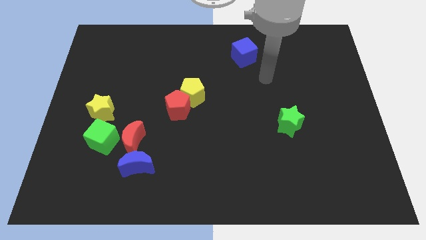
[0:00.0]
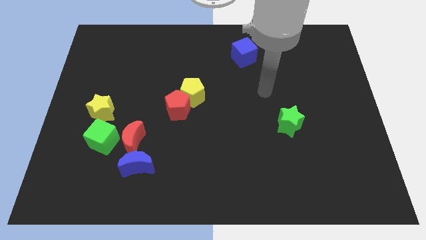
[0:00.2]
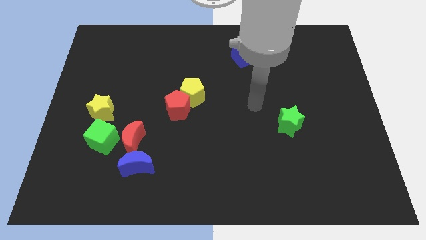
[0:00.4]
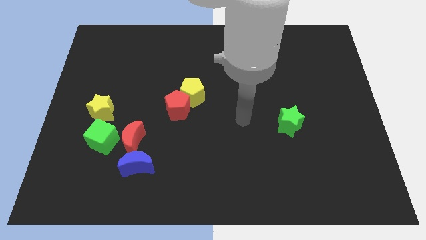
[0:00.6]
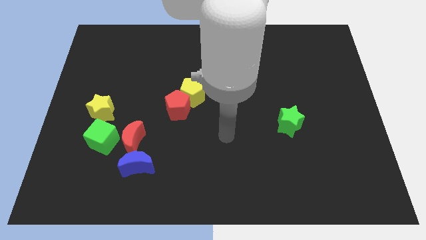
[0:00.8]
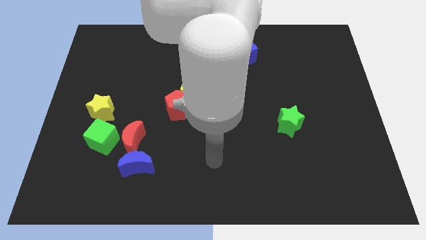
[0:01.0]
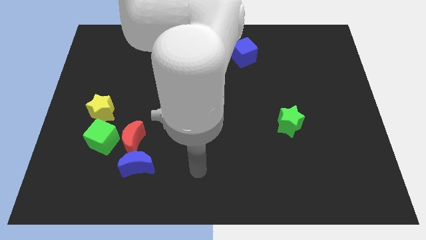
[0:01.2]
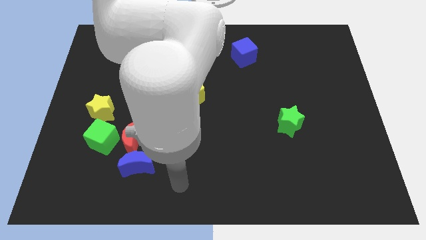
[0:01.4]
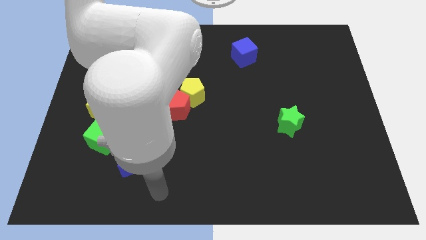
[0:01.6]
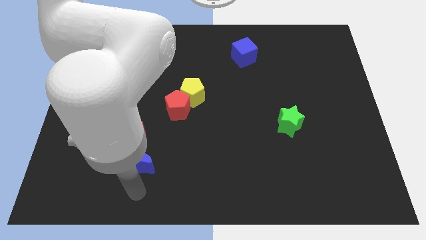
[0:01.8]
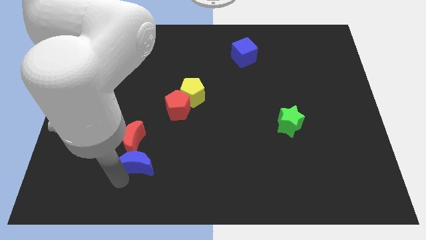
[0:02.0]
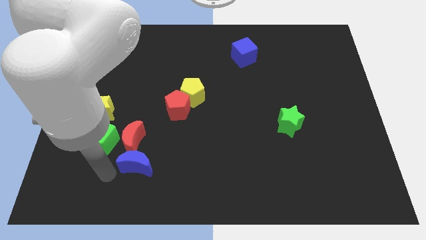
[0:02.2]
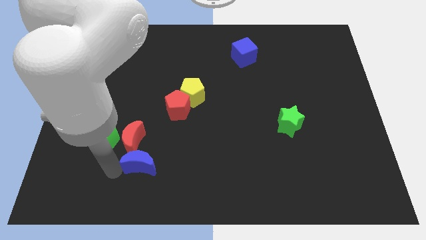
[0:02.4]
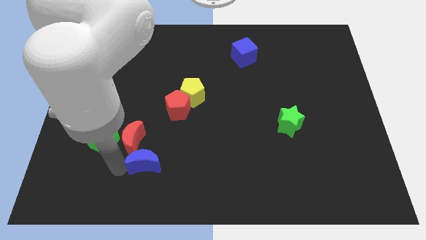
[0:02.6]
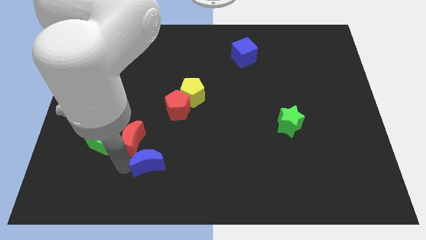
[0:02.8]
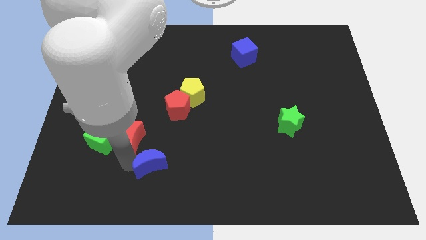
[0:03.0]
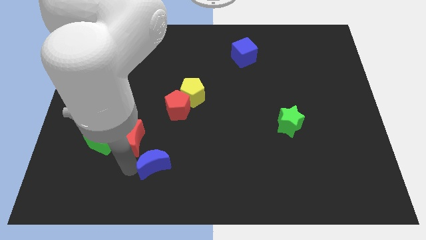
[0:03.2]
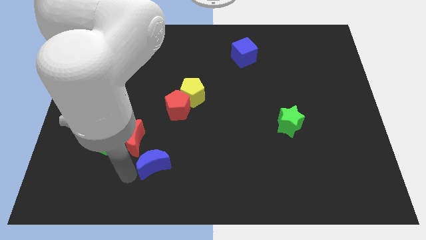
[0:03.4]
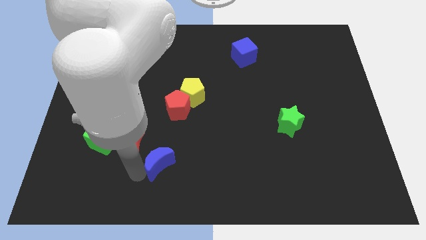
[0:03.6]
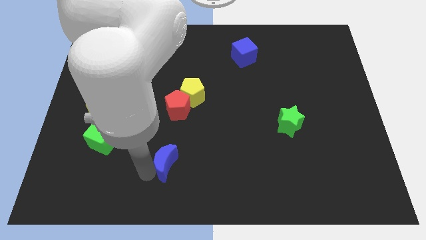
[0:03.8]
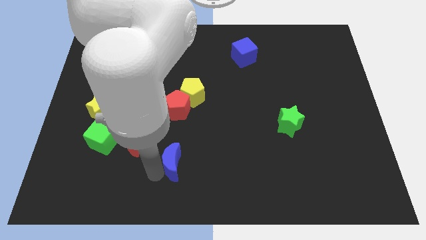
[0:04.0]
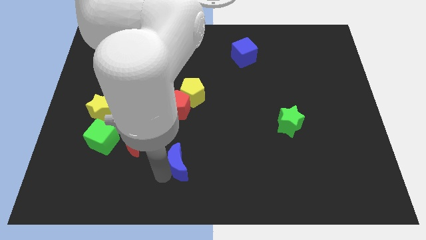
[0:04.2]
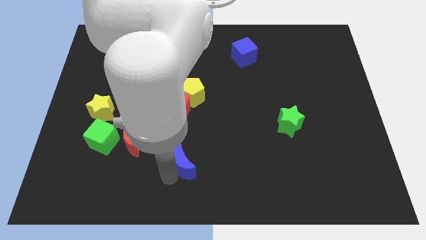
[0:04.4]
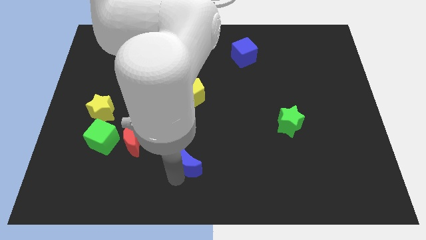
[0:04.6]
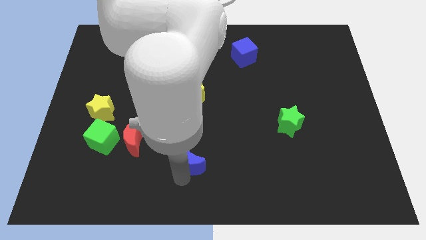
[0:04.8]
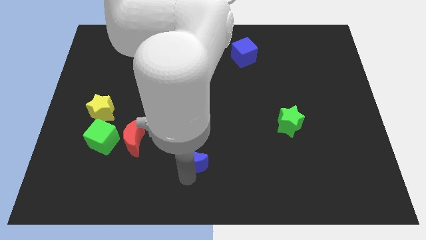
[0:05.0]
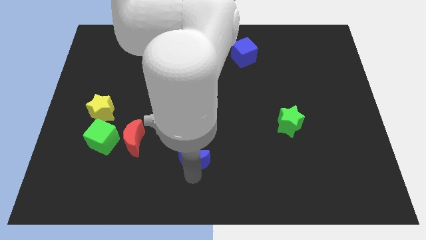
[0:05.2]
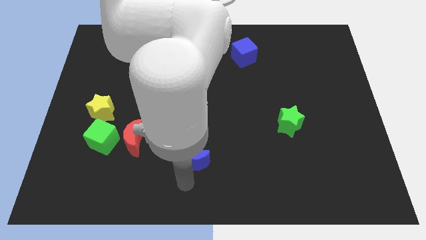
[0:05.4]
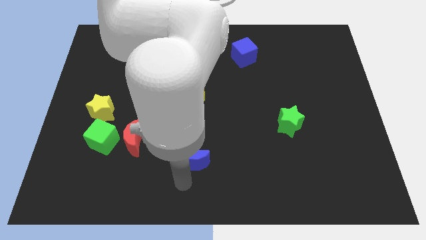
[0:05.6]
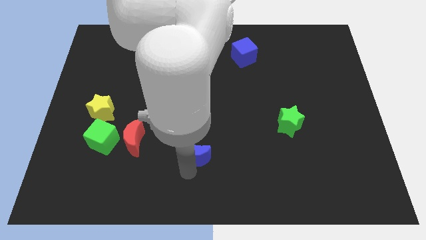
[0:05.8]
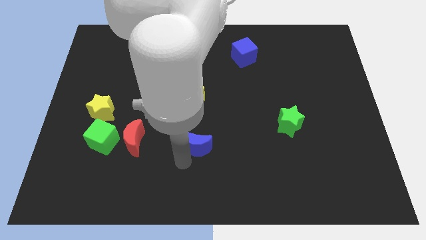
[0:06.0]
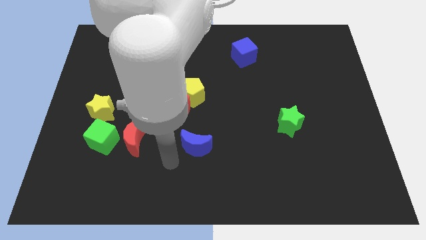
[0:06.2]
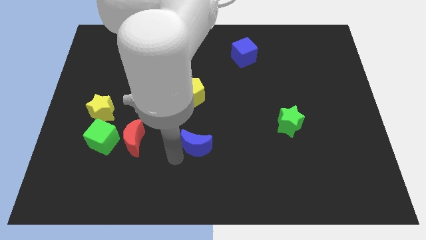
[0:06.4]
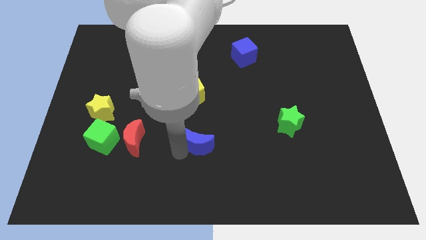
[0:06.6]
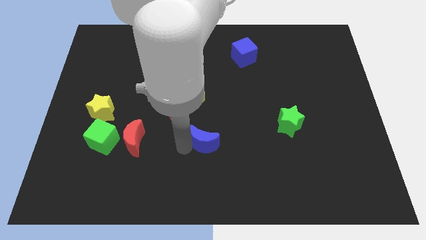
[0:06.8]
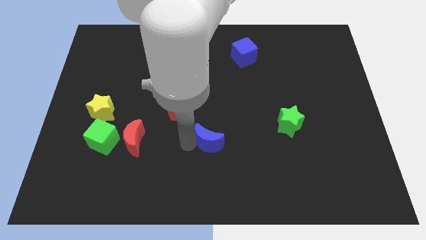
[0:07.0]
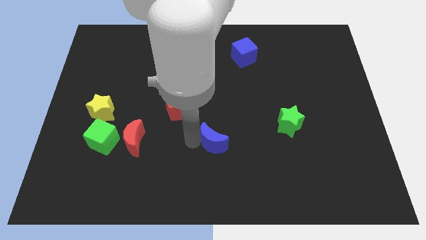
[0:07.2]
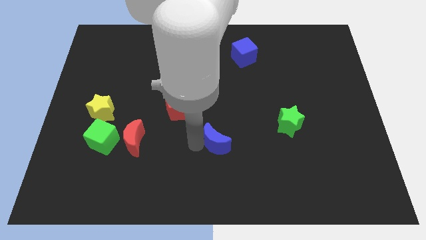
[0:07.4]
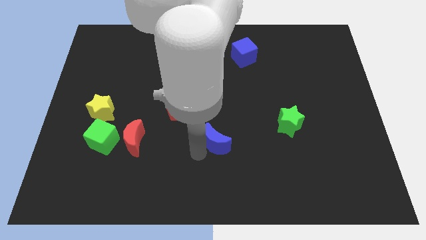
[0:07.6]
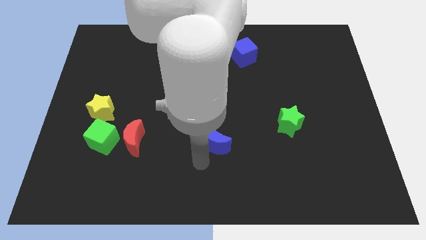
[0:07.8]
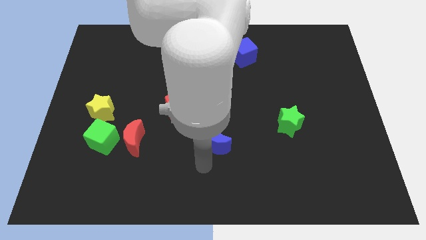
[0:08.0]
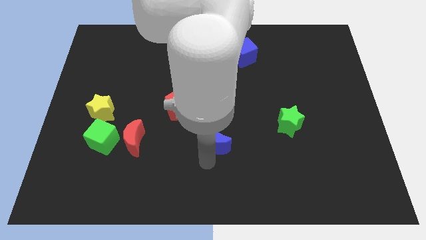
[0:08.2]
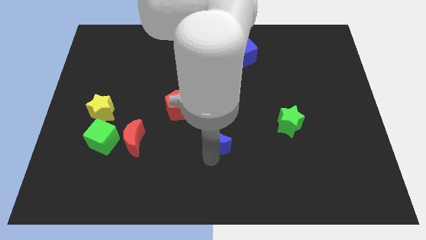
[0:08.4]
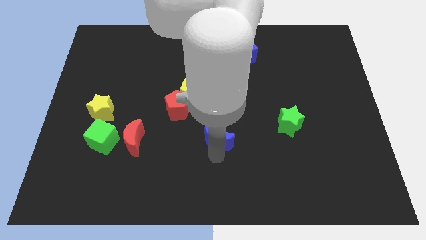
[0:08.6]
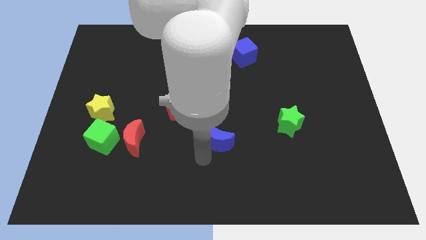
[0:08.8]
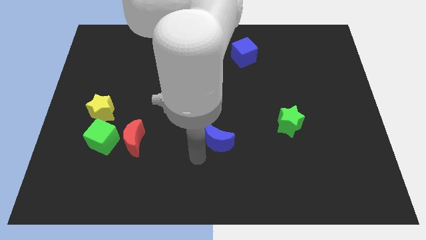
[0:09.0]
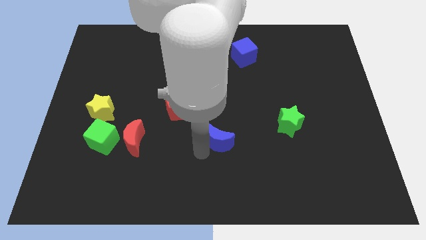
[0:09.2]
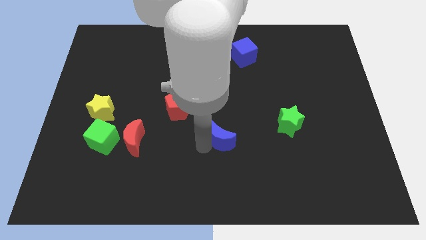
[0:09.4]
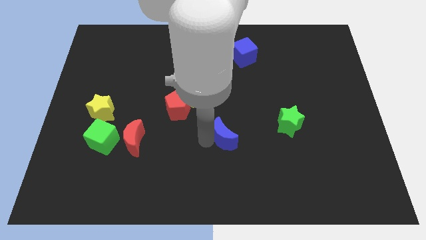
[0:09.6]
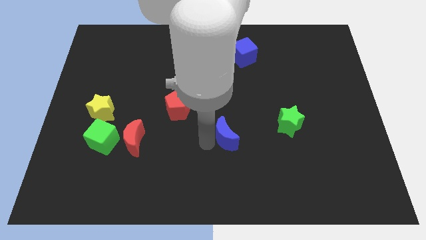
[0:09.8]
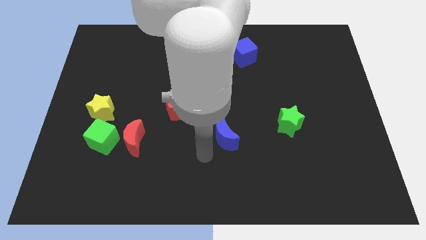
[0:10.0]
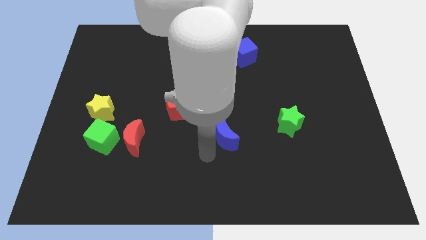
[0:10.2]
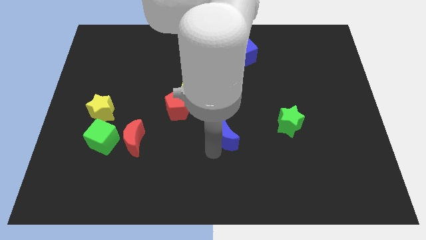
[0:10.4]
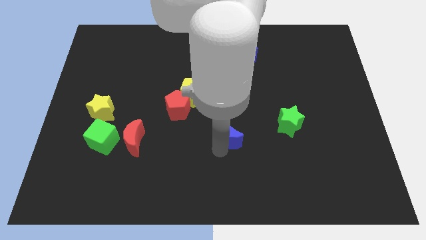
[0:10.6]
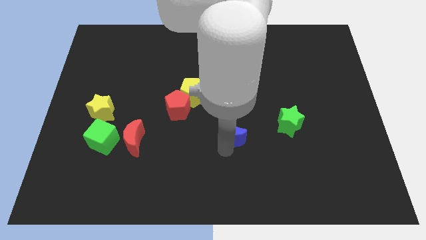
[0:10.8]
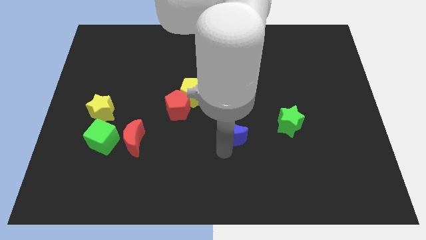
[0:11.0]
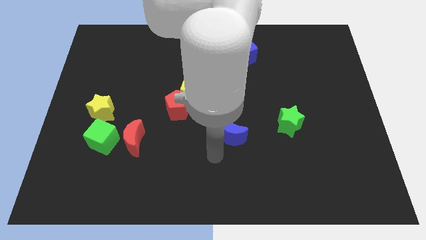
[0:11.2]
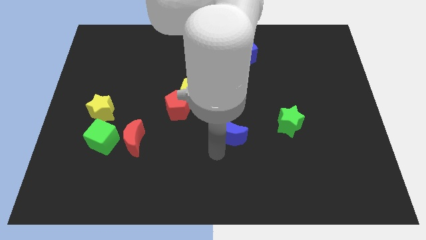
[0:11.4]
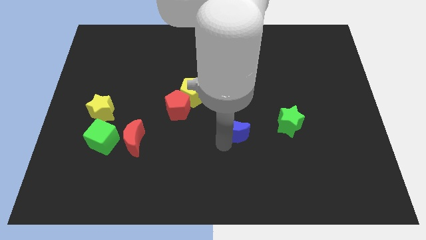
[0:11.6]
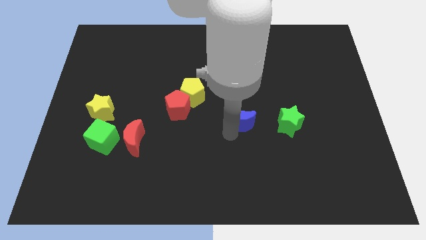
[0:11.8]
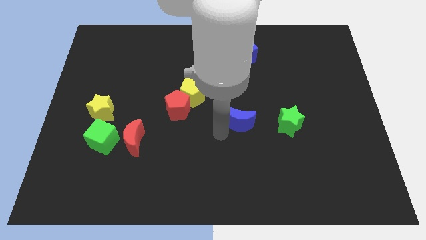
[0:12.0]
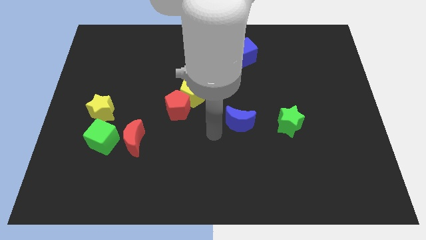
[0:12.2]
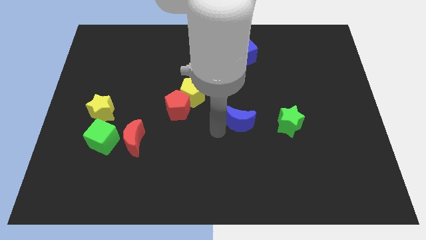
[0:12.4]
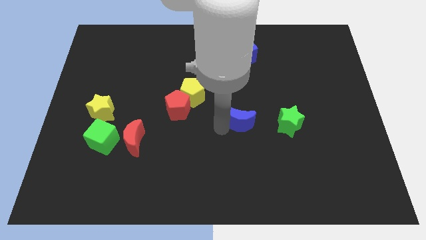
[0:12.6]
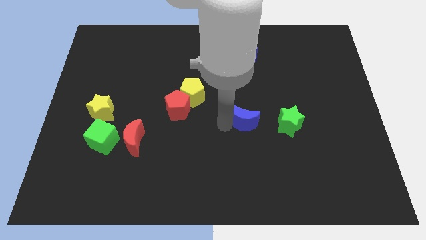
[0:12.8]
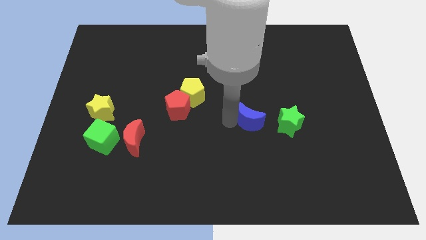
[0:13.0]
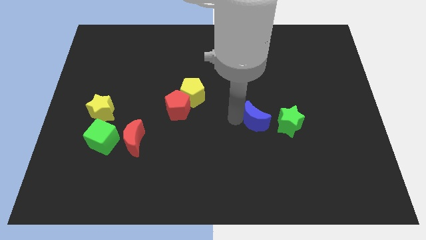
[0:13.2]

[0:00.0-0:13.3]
put the blue moon to the top left of the green star

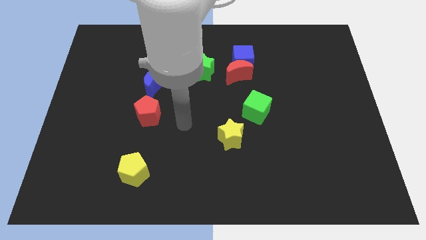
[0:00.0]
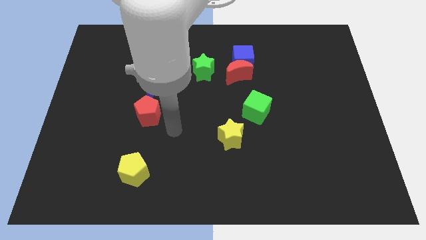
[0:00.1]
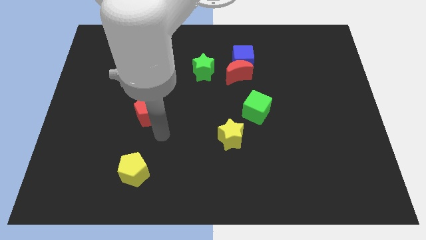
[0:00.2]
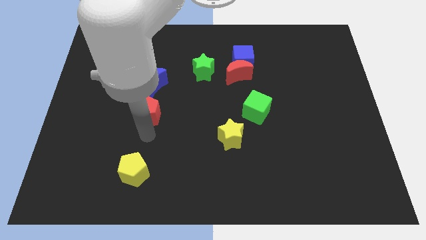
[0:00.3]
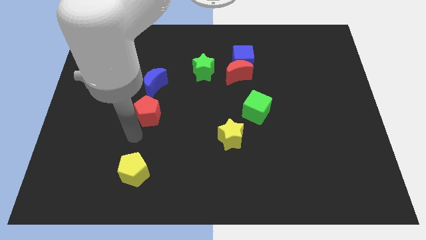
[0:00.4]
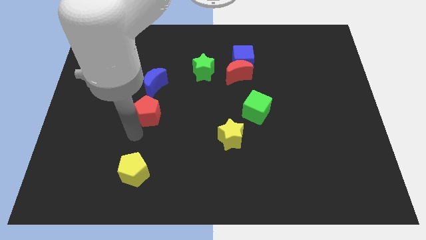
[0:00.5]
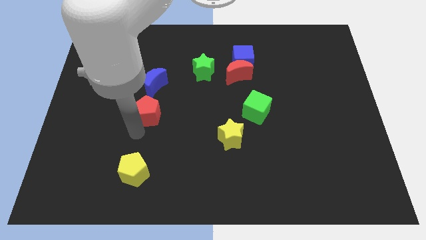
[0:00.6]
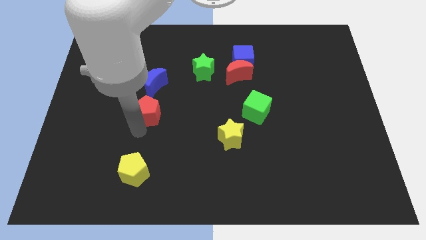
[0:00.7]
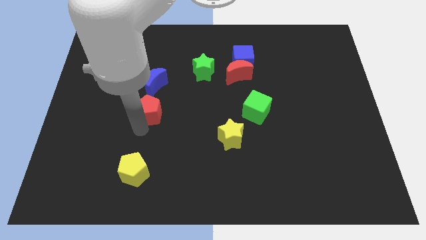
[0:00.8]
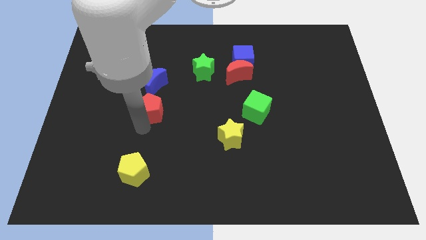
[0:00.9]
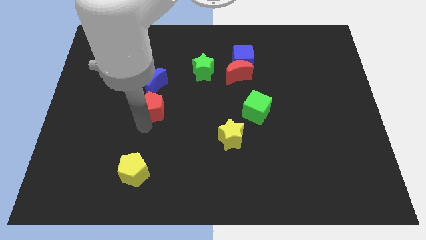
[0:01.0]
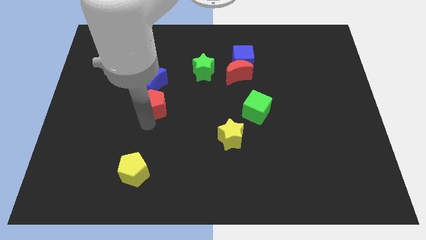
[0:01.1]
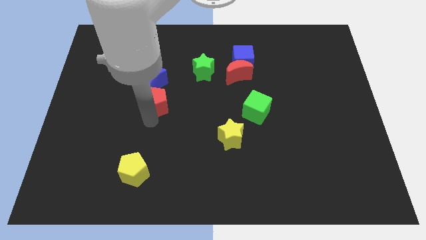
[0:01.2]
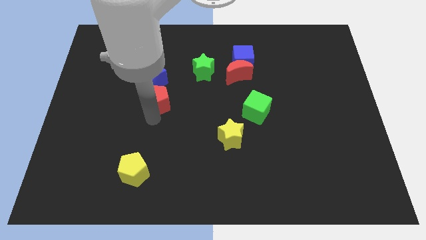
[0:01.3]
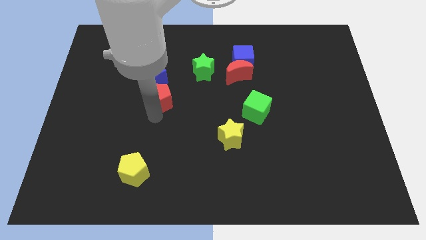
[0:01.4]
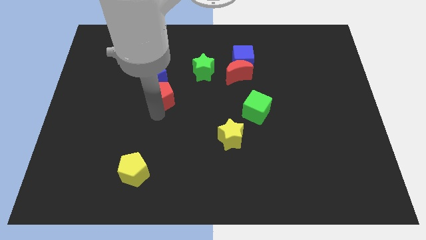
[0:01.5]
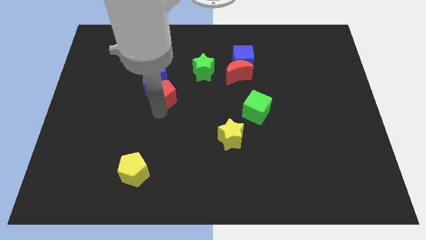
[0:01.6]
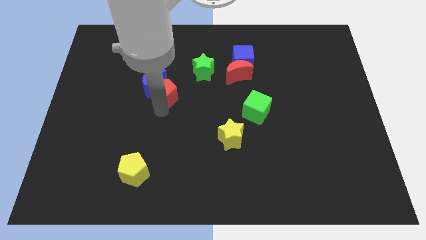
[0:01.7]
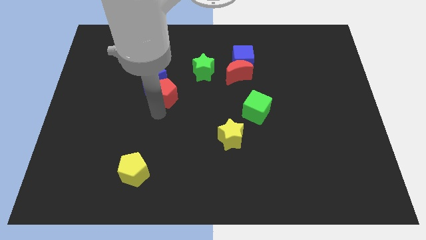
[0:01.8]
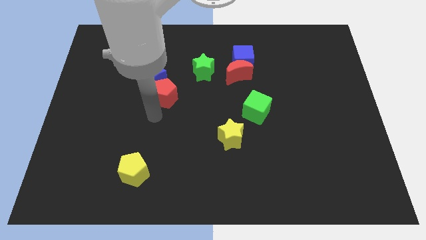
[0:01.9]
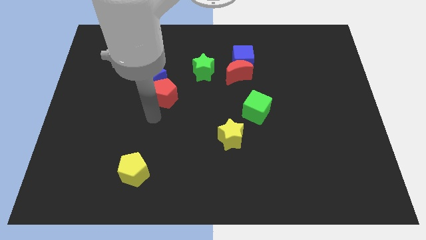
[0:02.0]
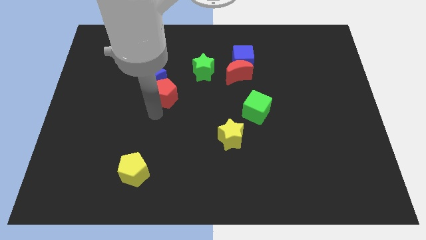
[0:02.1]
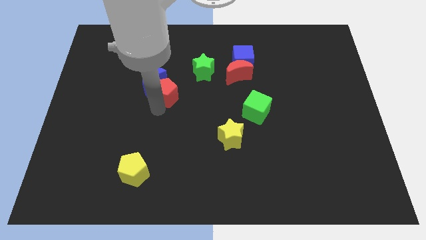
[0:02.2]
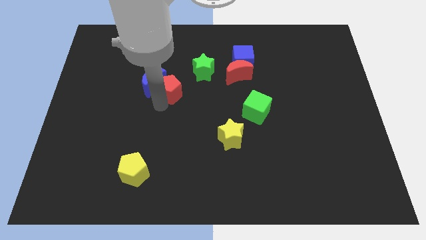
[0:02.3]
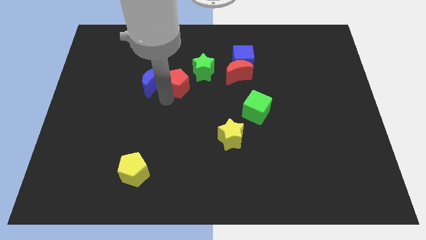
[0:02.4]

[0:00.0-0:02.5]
push the red pentagon to the top right side of the blue moon
